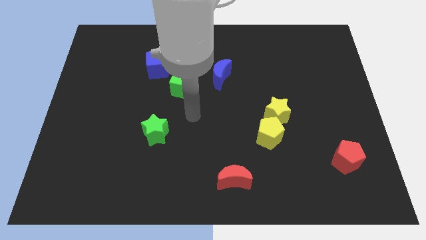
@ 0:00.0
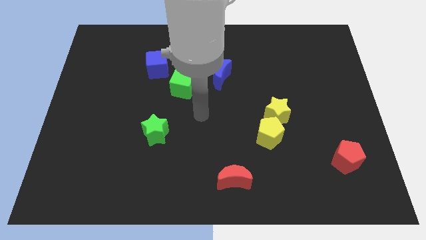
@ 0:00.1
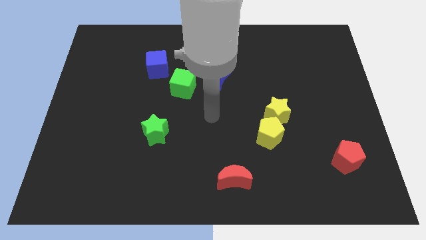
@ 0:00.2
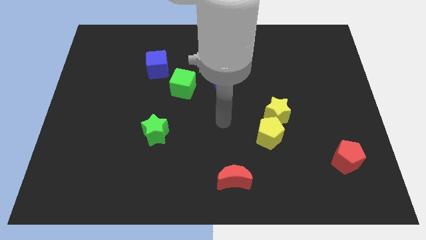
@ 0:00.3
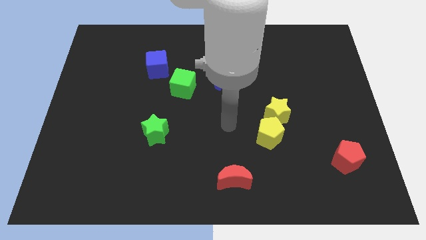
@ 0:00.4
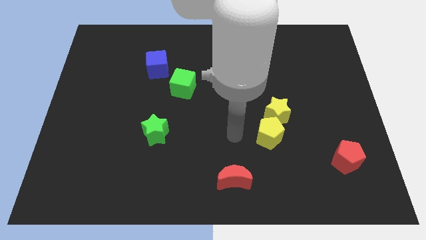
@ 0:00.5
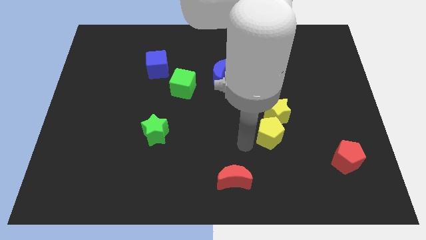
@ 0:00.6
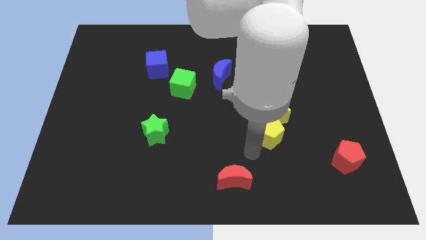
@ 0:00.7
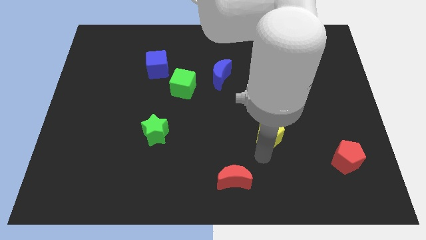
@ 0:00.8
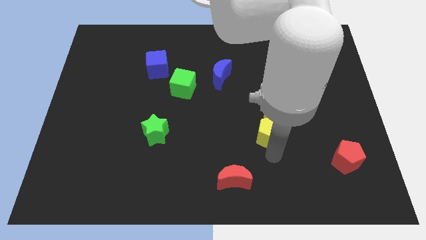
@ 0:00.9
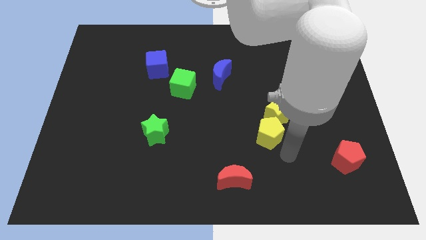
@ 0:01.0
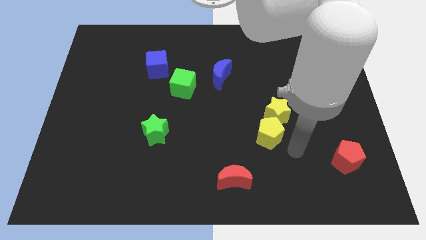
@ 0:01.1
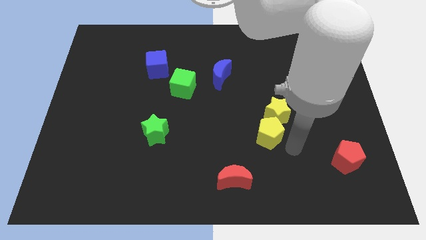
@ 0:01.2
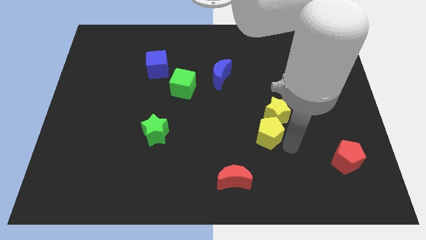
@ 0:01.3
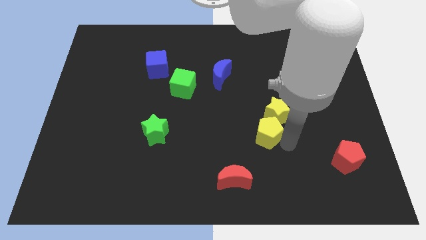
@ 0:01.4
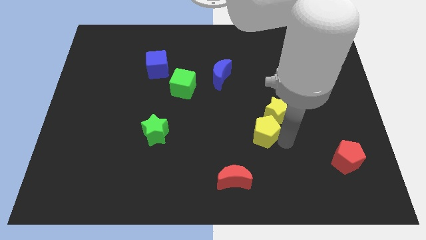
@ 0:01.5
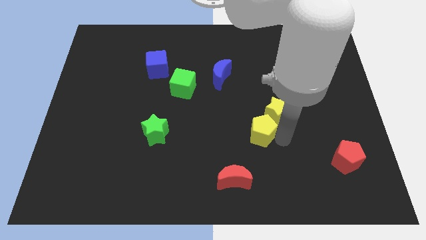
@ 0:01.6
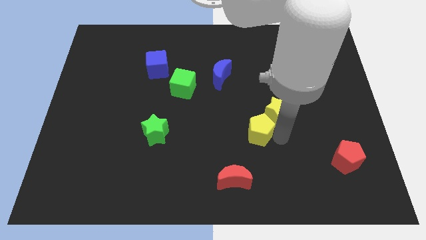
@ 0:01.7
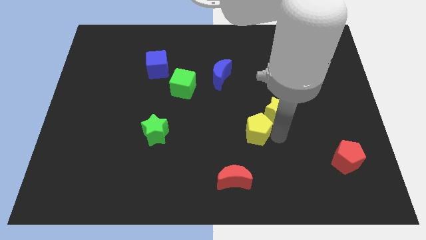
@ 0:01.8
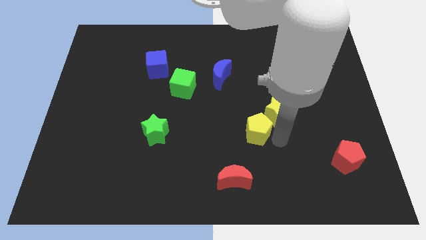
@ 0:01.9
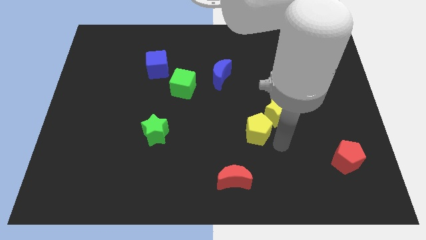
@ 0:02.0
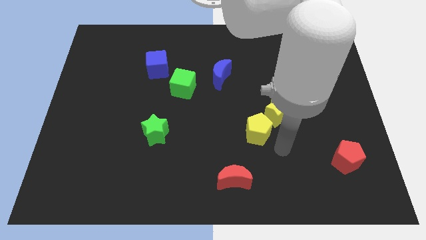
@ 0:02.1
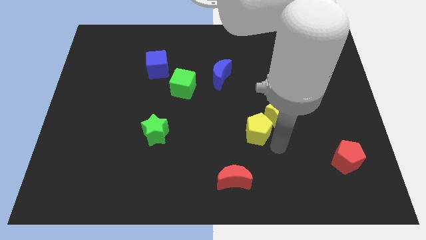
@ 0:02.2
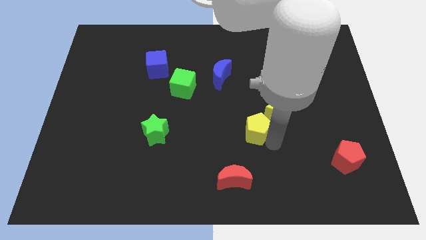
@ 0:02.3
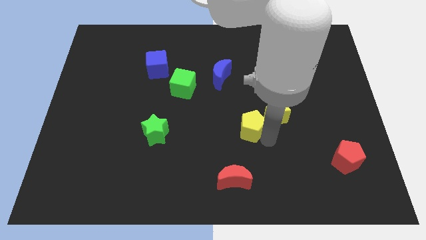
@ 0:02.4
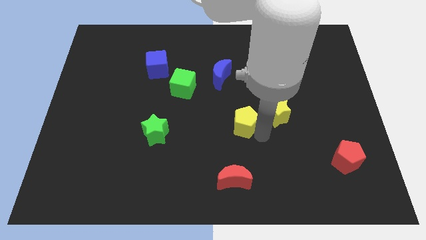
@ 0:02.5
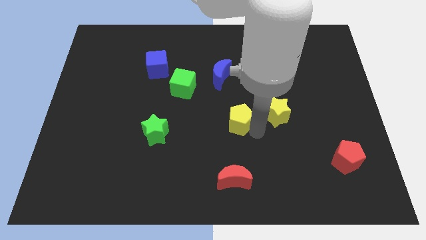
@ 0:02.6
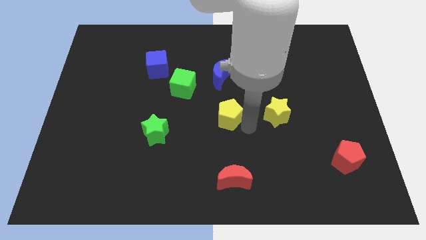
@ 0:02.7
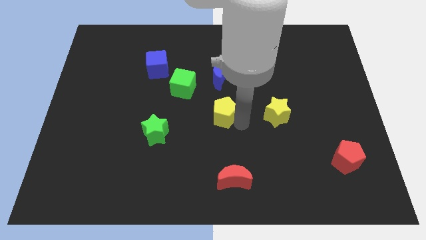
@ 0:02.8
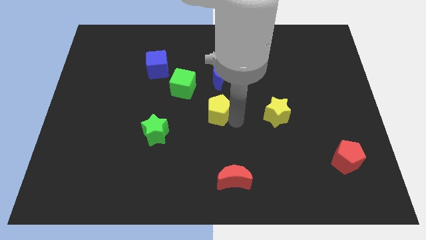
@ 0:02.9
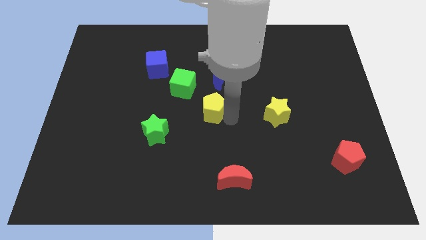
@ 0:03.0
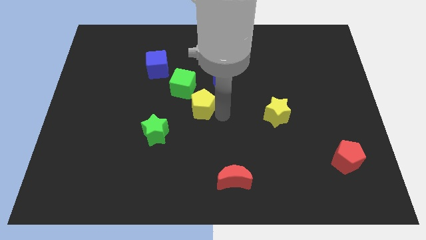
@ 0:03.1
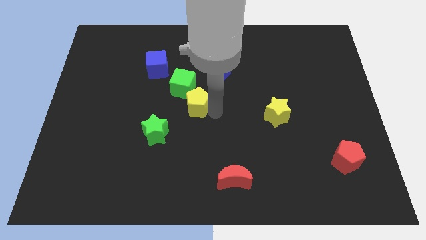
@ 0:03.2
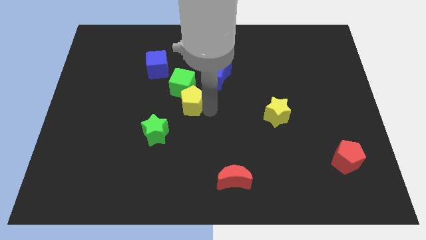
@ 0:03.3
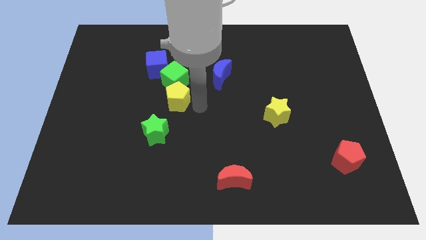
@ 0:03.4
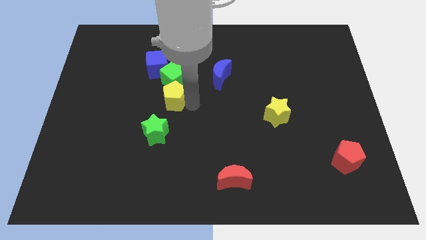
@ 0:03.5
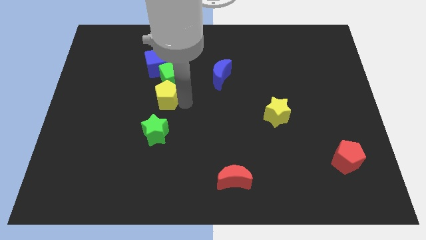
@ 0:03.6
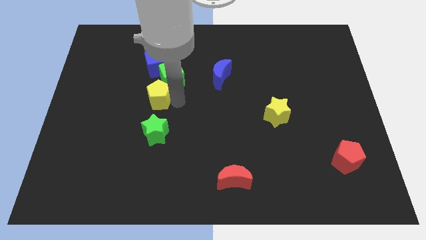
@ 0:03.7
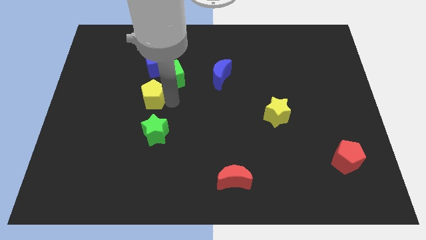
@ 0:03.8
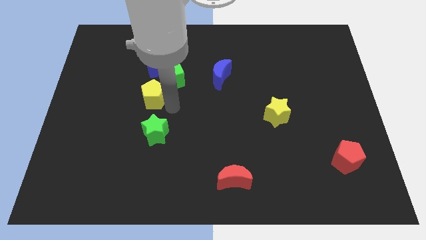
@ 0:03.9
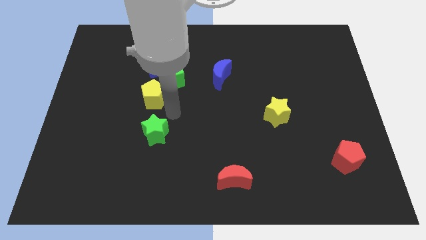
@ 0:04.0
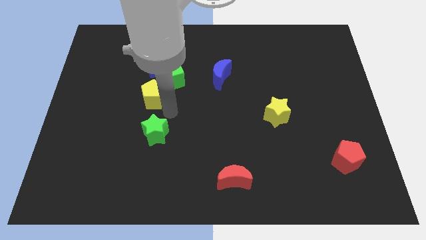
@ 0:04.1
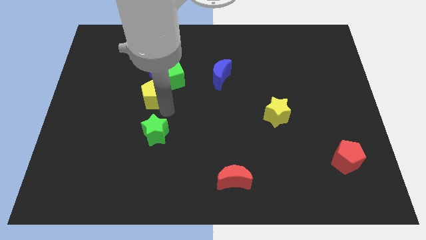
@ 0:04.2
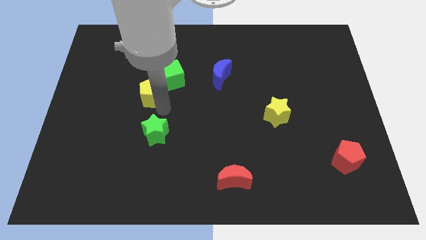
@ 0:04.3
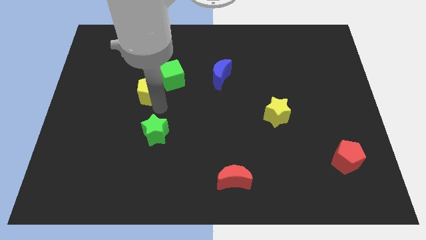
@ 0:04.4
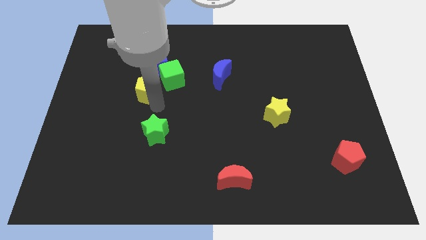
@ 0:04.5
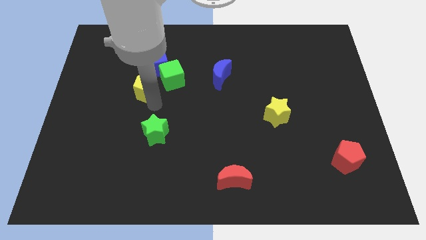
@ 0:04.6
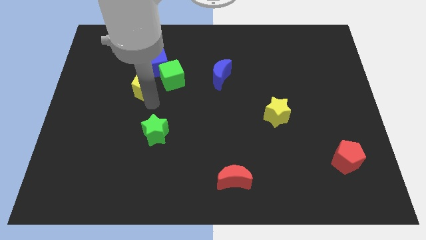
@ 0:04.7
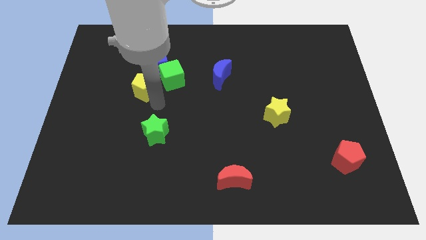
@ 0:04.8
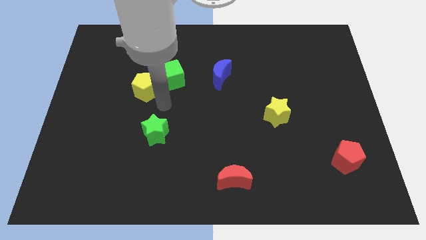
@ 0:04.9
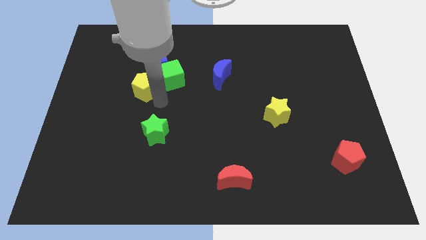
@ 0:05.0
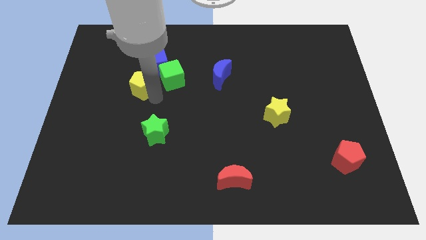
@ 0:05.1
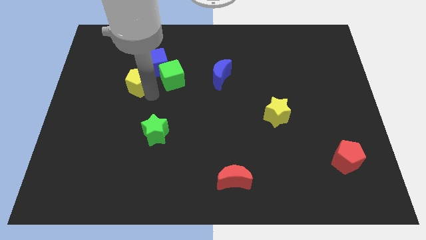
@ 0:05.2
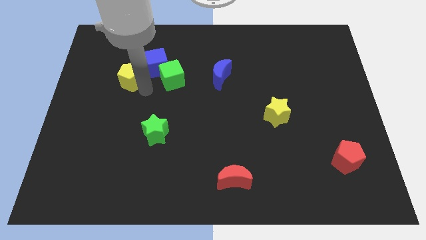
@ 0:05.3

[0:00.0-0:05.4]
put the yellow pentagon to the left of the blue cube

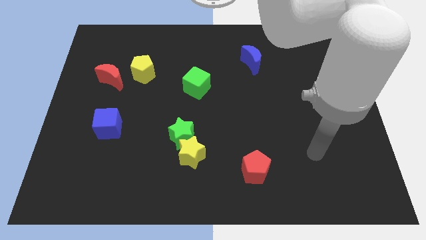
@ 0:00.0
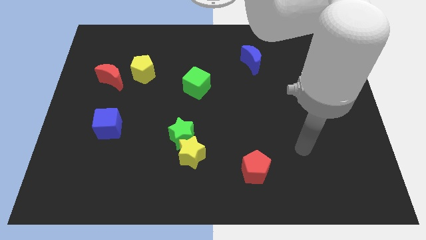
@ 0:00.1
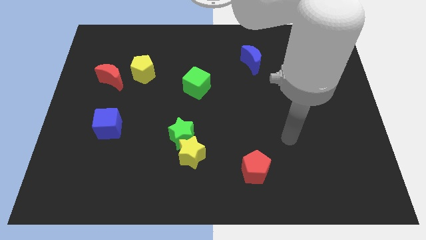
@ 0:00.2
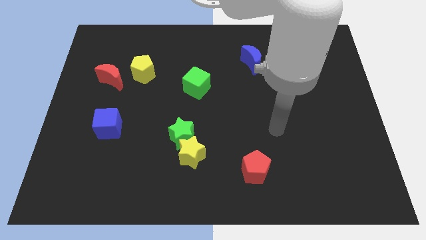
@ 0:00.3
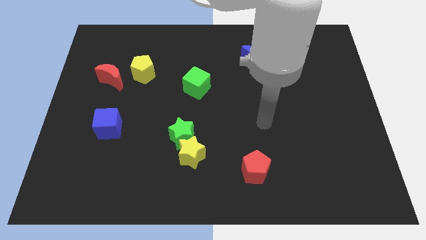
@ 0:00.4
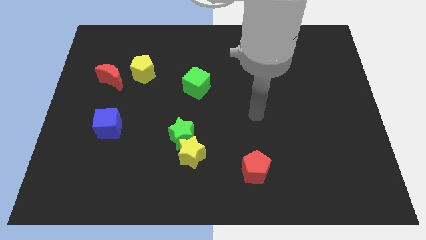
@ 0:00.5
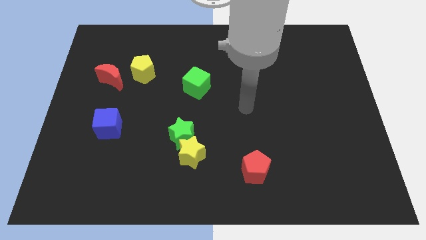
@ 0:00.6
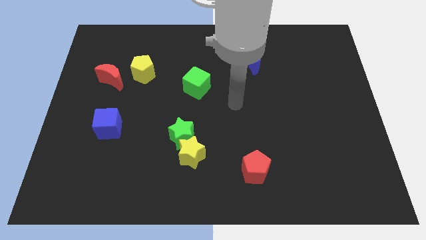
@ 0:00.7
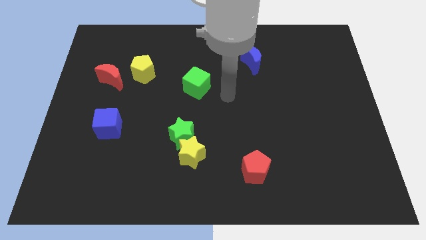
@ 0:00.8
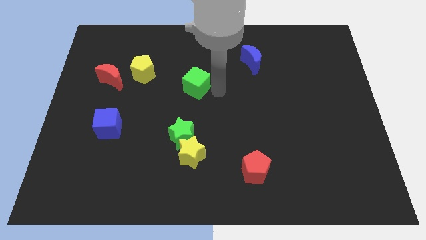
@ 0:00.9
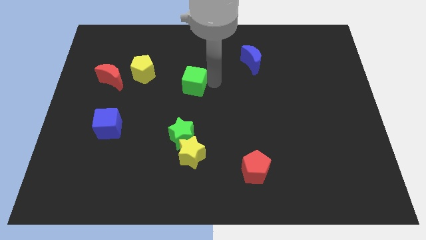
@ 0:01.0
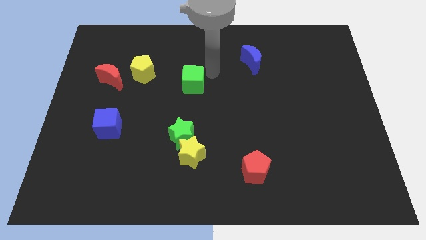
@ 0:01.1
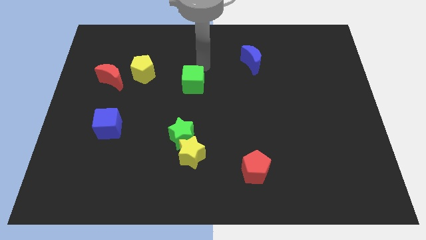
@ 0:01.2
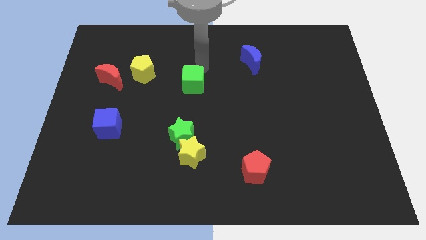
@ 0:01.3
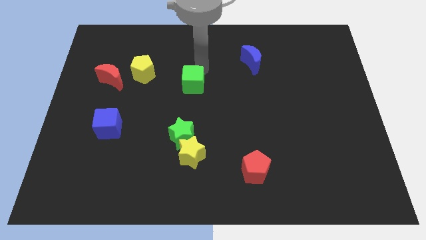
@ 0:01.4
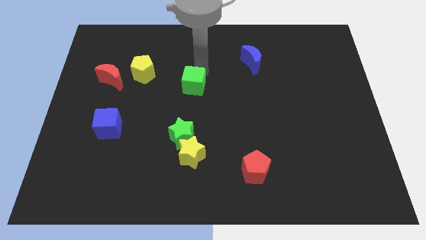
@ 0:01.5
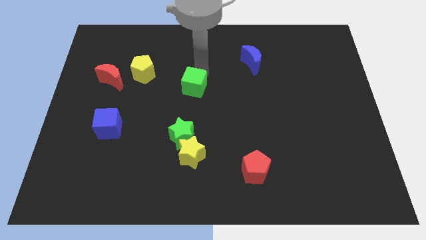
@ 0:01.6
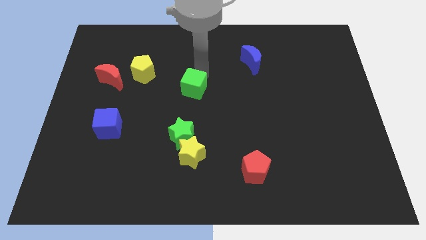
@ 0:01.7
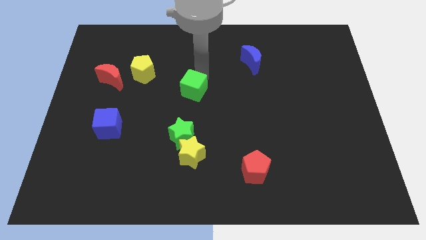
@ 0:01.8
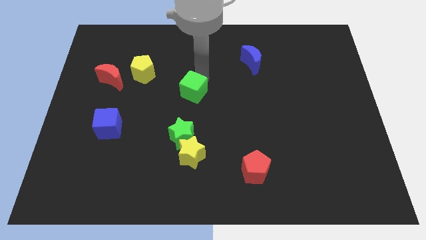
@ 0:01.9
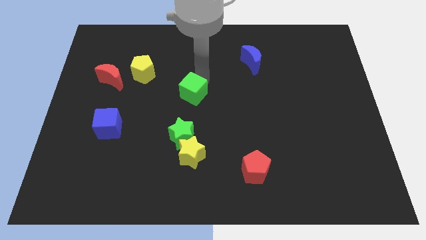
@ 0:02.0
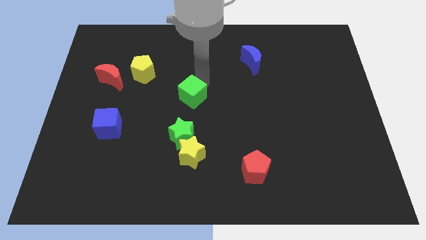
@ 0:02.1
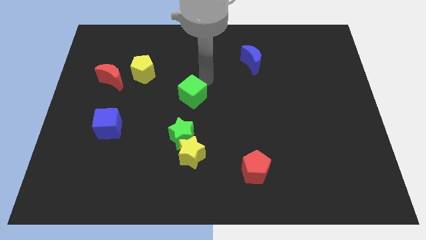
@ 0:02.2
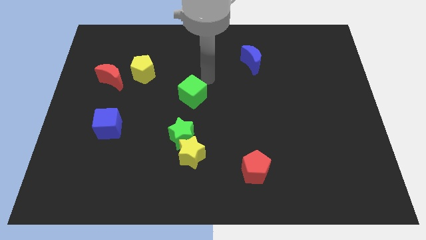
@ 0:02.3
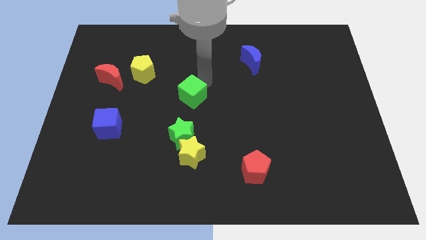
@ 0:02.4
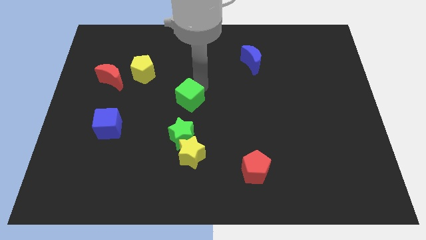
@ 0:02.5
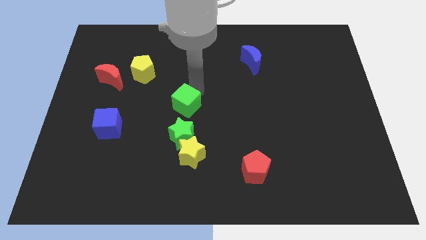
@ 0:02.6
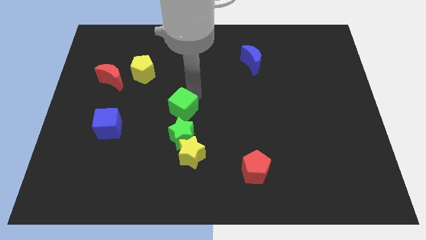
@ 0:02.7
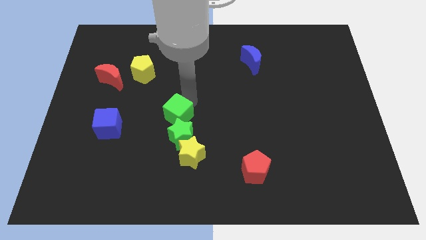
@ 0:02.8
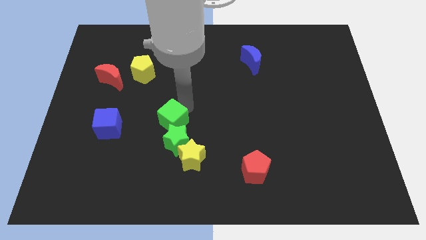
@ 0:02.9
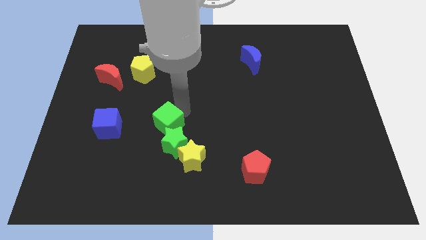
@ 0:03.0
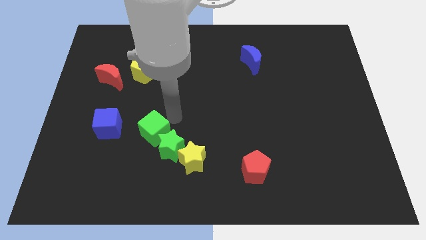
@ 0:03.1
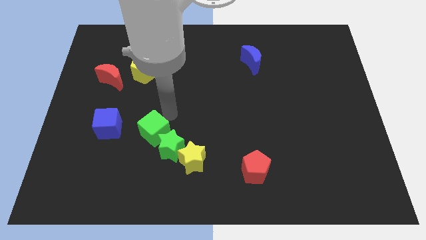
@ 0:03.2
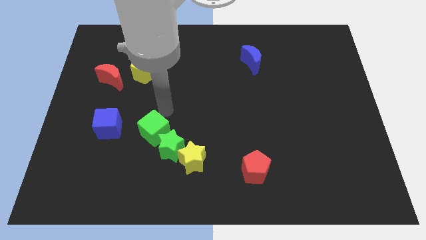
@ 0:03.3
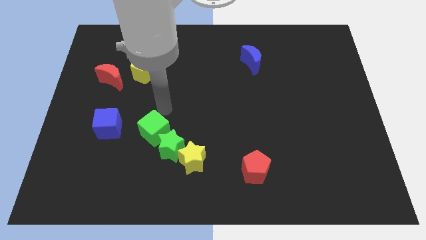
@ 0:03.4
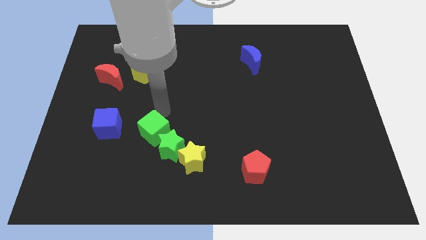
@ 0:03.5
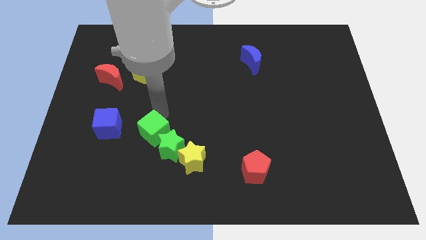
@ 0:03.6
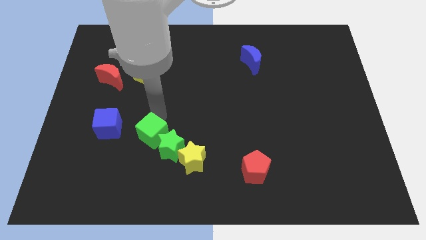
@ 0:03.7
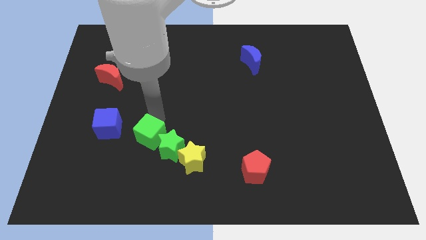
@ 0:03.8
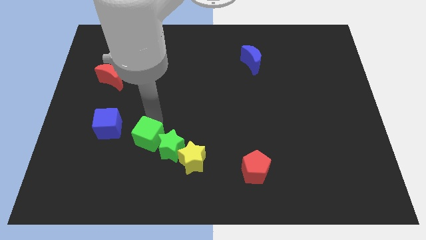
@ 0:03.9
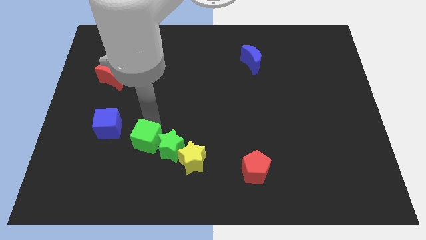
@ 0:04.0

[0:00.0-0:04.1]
push the green cube just left of the yellow star
